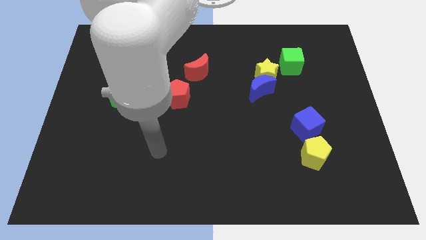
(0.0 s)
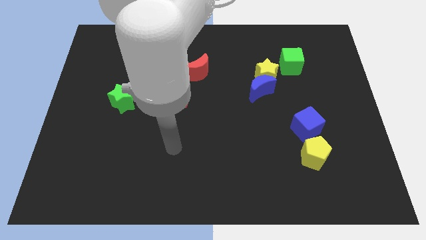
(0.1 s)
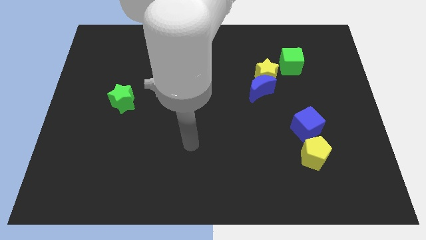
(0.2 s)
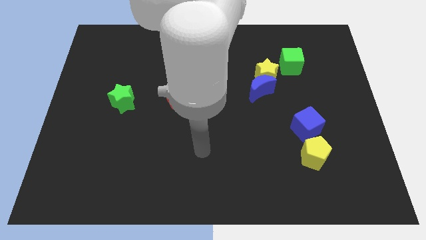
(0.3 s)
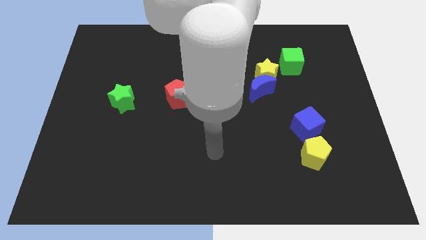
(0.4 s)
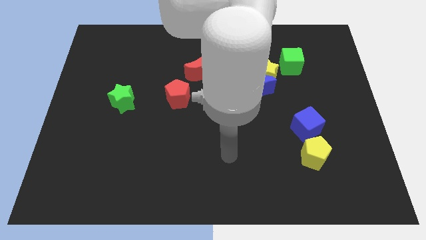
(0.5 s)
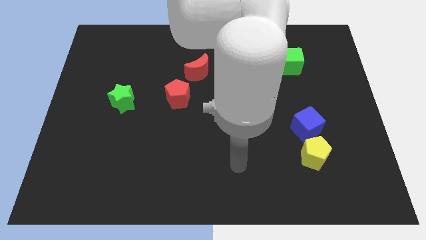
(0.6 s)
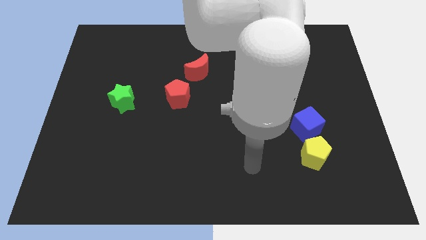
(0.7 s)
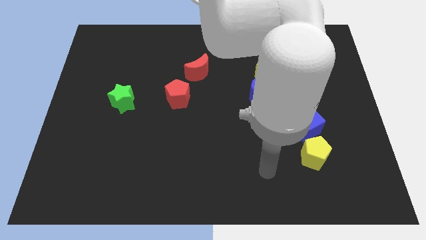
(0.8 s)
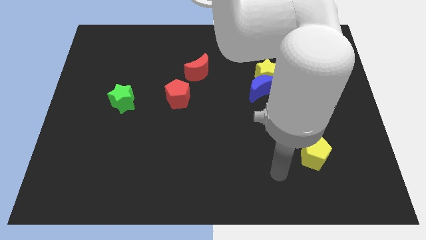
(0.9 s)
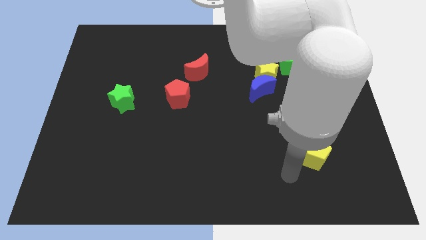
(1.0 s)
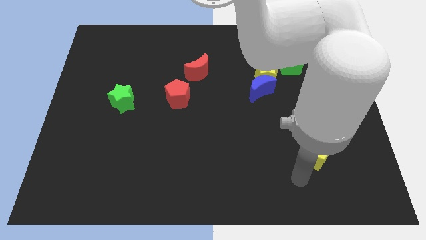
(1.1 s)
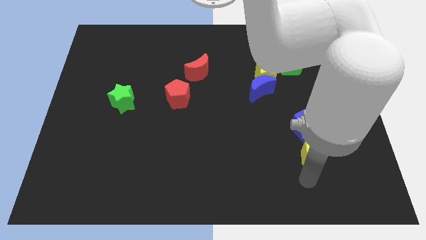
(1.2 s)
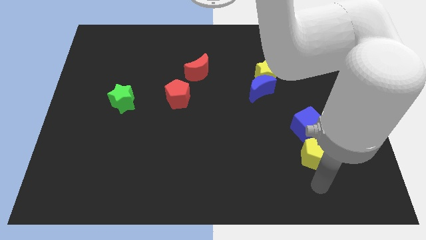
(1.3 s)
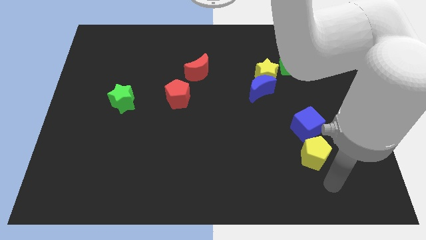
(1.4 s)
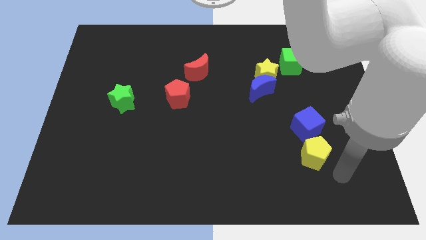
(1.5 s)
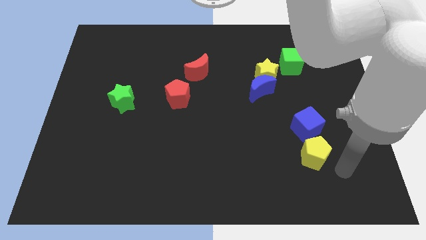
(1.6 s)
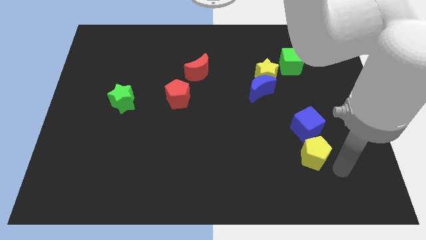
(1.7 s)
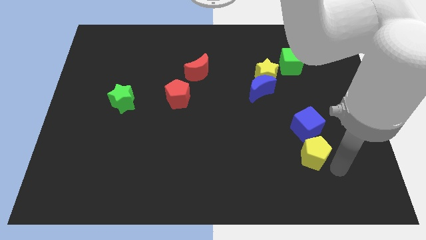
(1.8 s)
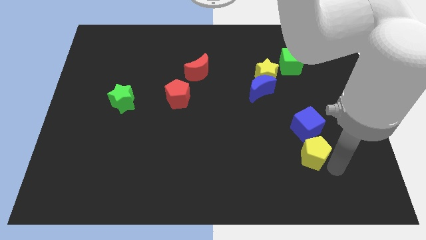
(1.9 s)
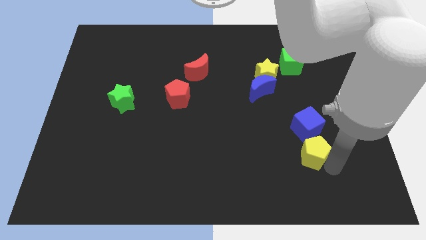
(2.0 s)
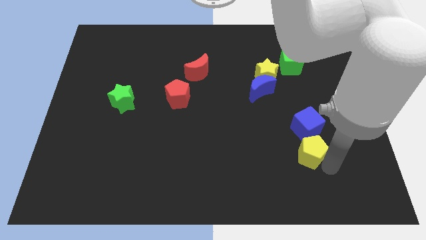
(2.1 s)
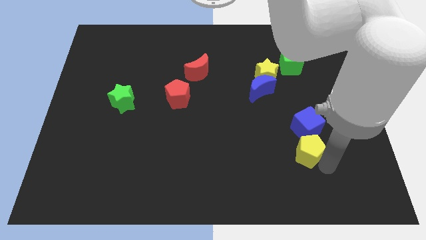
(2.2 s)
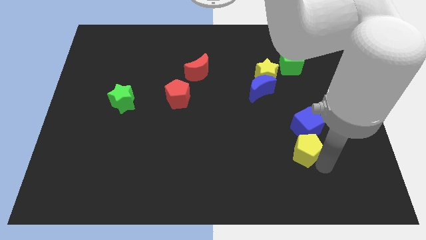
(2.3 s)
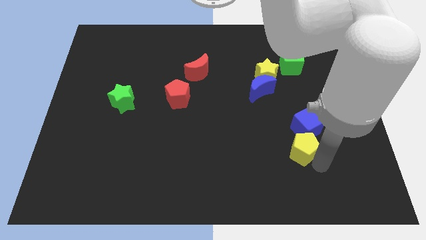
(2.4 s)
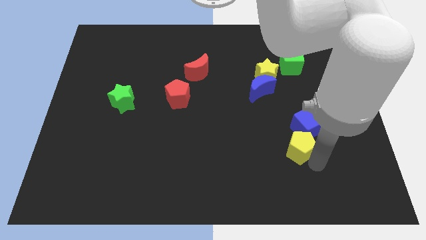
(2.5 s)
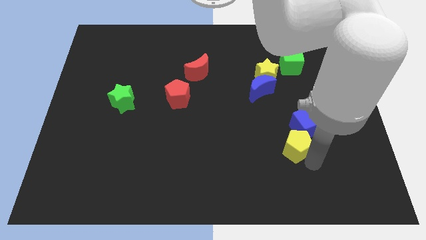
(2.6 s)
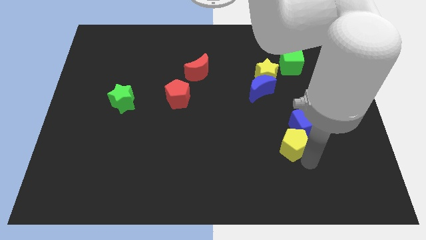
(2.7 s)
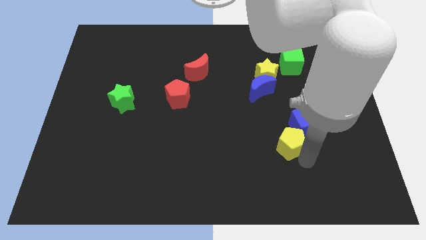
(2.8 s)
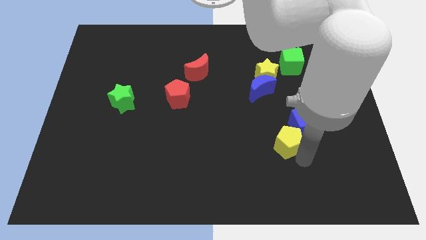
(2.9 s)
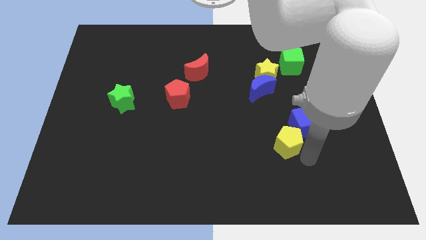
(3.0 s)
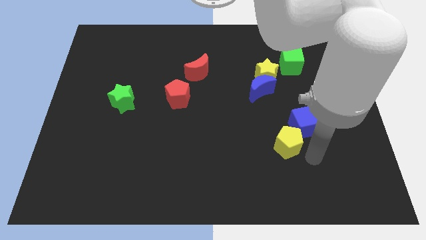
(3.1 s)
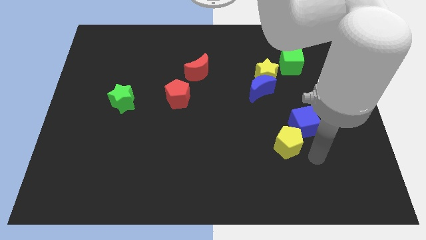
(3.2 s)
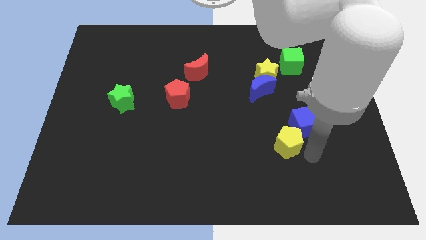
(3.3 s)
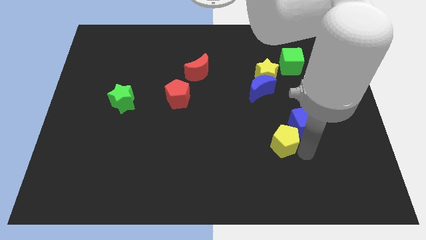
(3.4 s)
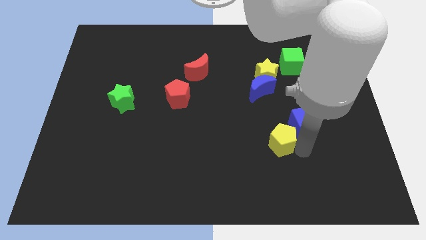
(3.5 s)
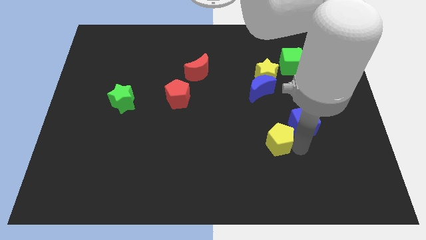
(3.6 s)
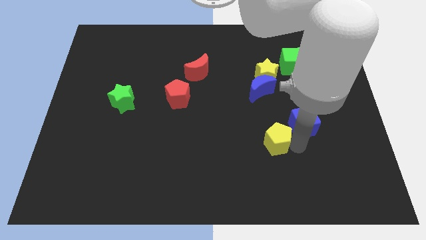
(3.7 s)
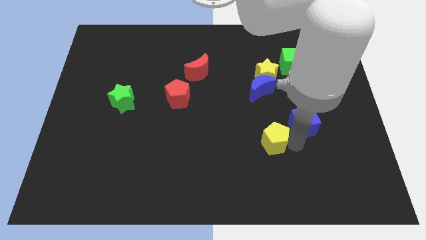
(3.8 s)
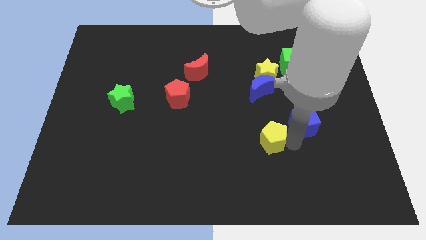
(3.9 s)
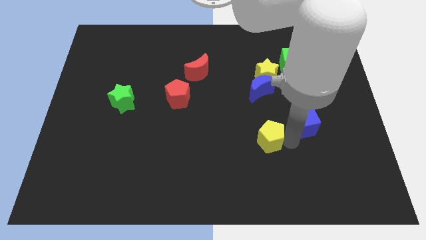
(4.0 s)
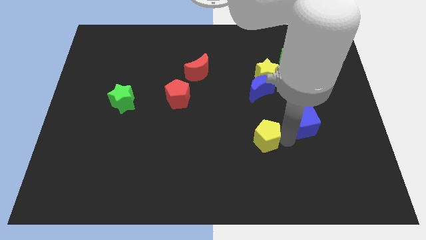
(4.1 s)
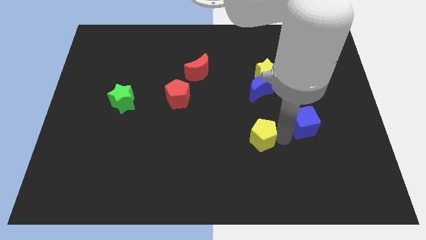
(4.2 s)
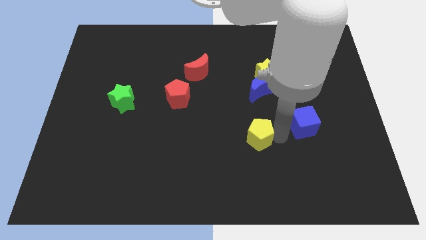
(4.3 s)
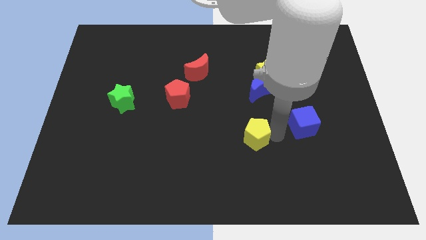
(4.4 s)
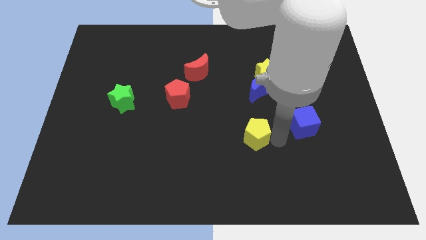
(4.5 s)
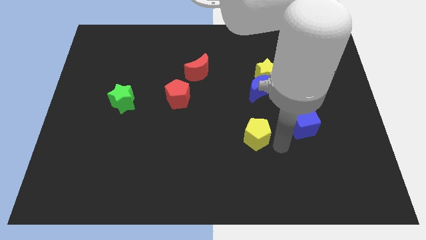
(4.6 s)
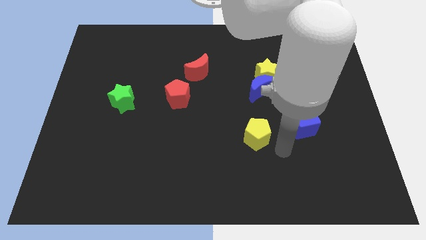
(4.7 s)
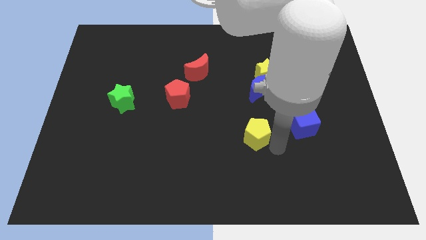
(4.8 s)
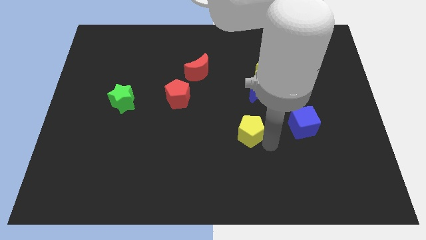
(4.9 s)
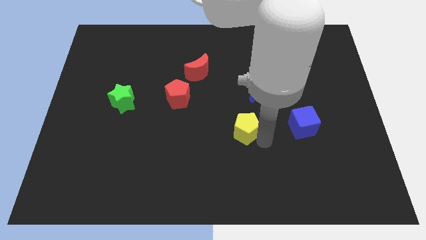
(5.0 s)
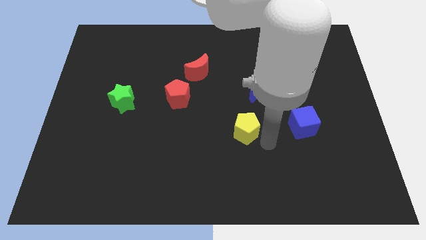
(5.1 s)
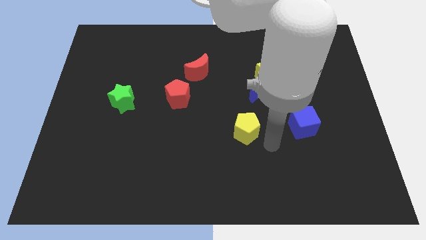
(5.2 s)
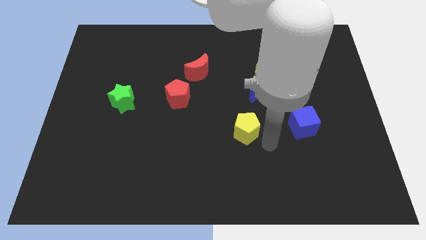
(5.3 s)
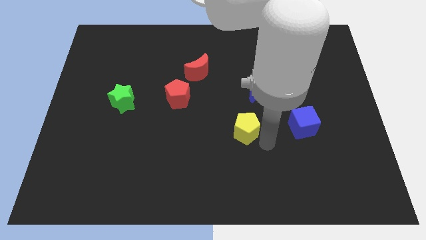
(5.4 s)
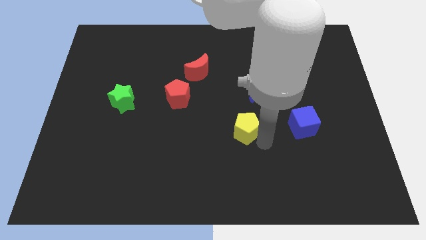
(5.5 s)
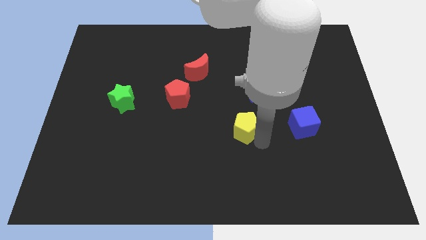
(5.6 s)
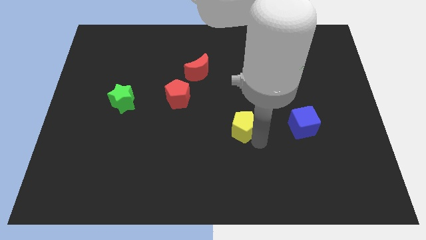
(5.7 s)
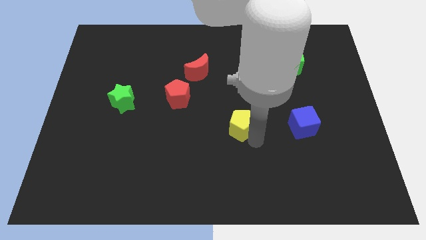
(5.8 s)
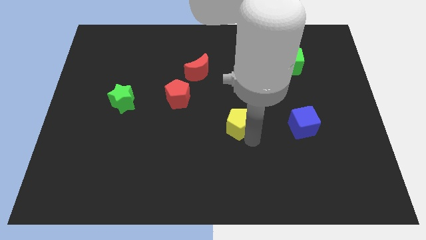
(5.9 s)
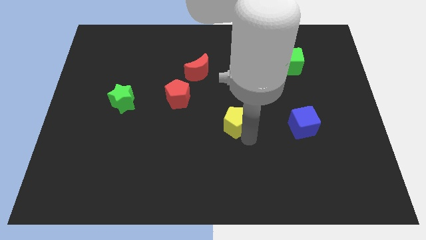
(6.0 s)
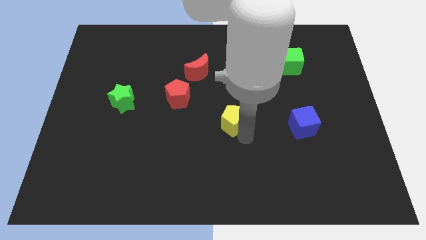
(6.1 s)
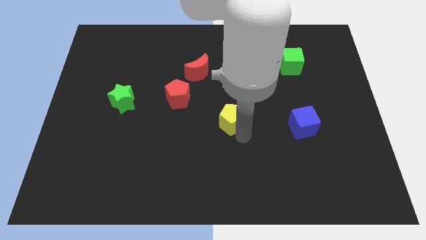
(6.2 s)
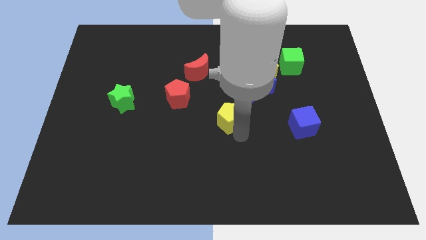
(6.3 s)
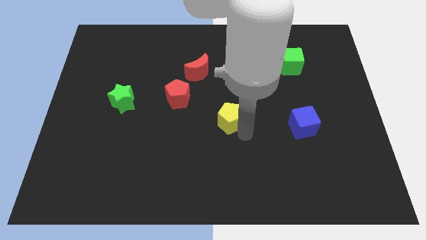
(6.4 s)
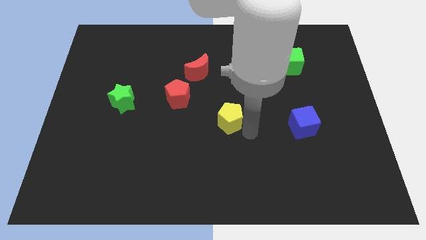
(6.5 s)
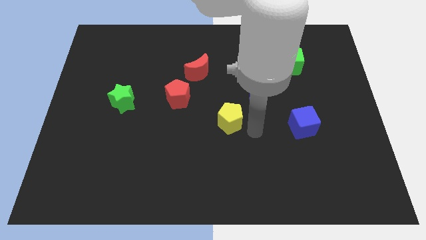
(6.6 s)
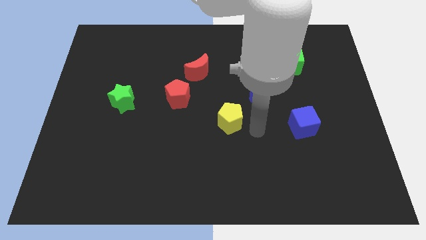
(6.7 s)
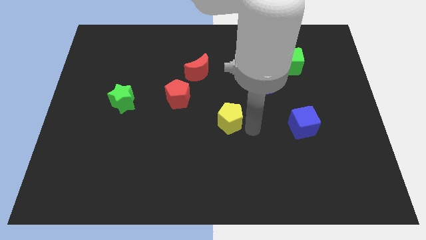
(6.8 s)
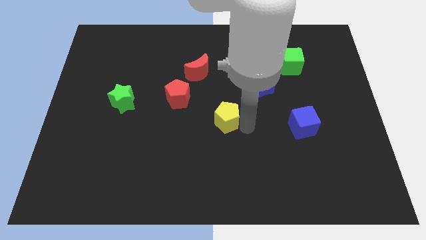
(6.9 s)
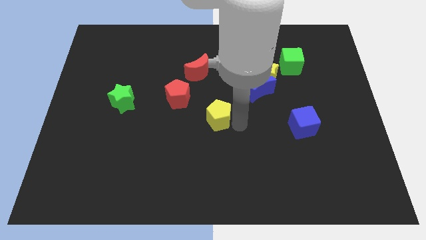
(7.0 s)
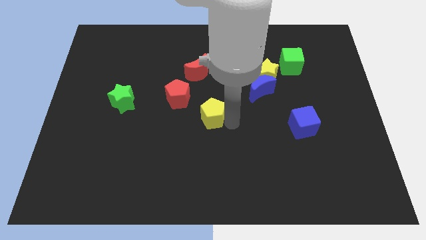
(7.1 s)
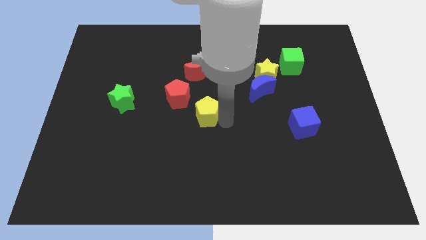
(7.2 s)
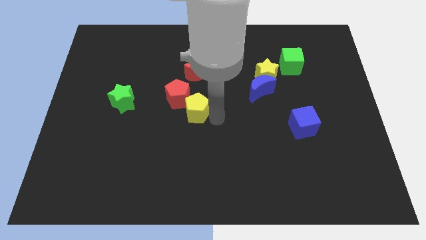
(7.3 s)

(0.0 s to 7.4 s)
push the yellow pentagon towards the red pentagon

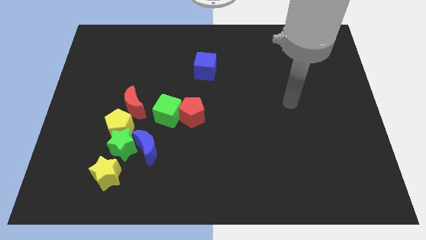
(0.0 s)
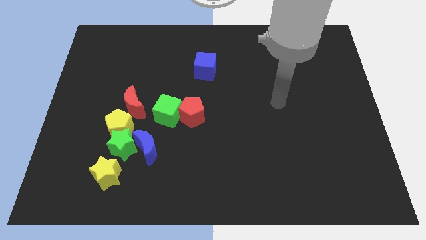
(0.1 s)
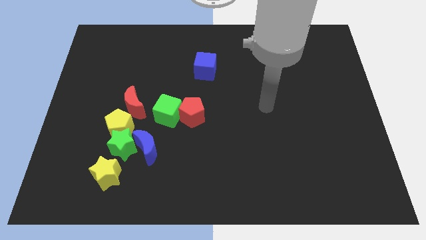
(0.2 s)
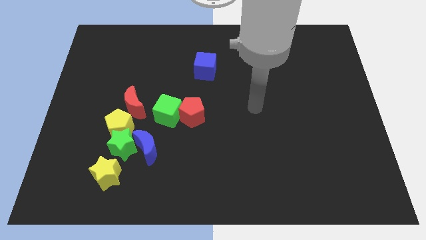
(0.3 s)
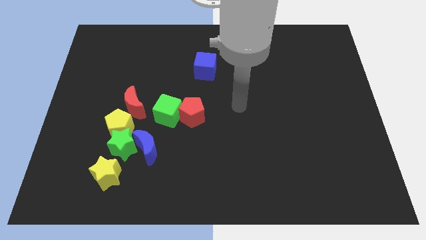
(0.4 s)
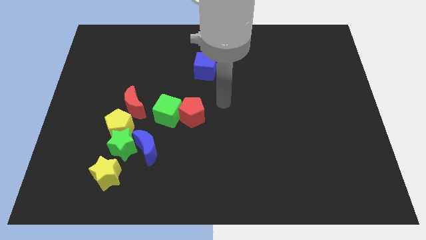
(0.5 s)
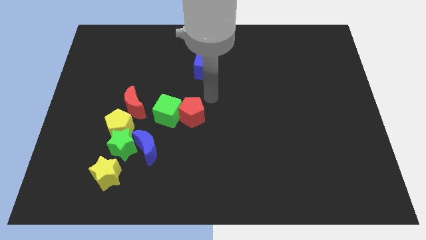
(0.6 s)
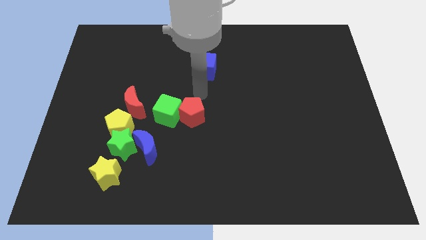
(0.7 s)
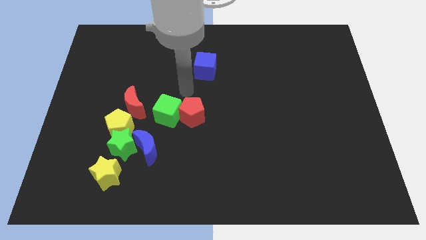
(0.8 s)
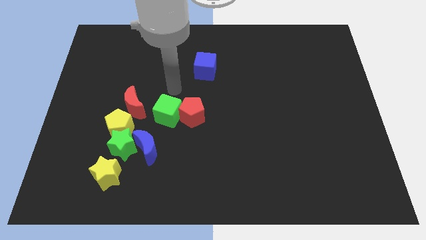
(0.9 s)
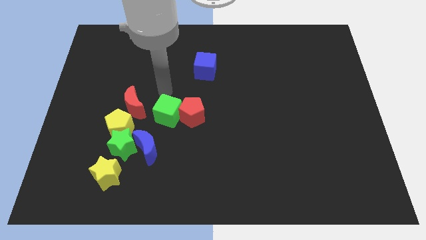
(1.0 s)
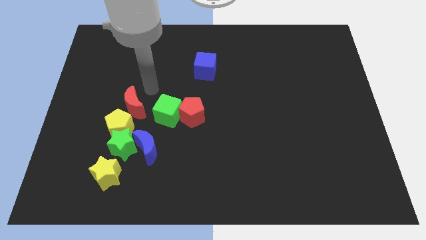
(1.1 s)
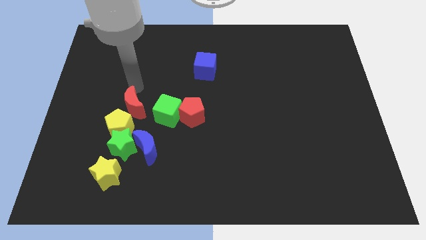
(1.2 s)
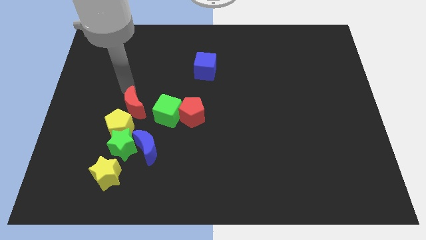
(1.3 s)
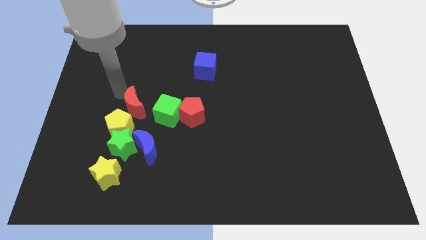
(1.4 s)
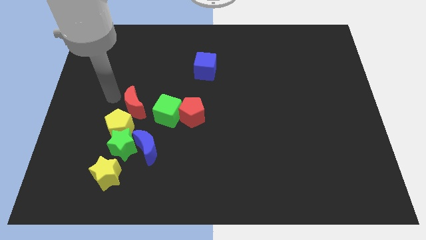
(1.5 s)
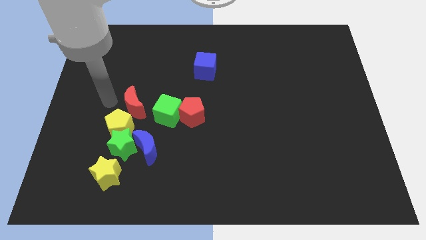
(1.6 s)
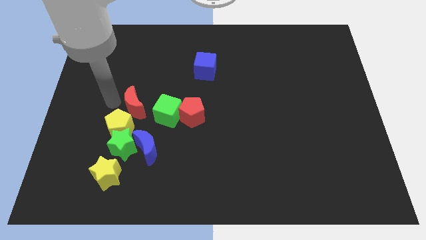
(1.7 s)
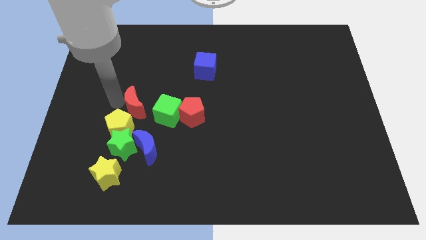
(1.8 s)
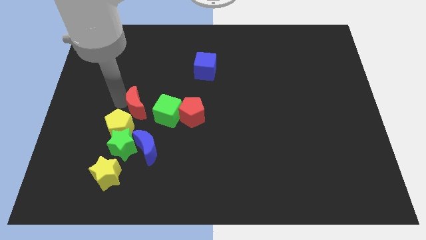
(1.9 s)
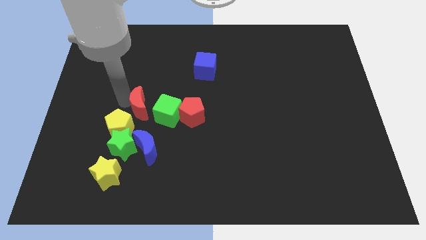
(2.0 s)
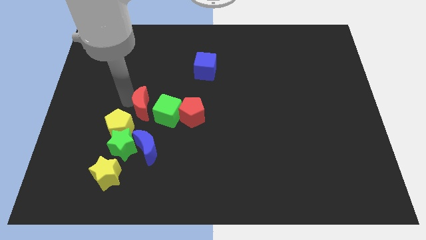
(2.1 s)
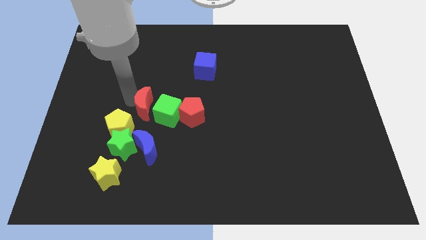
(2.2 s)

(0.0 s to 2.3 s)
push the red moon next to the green cube
